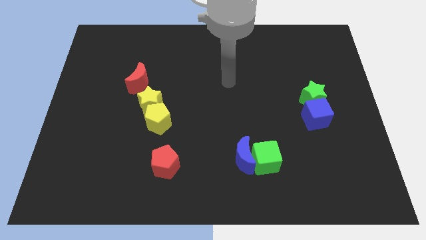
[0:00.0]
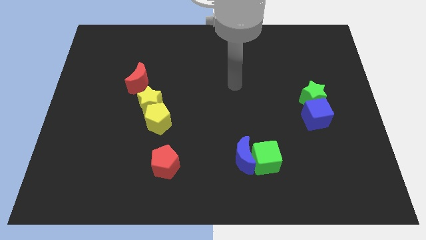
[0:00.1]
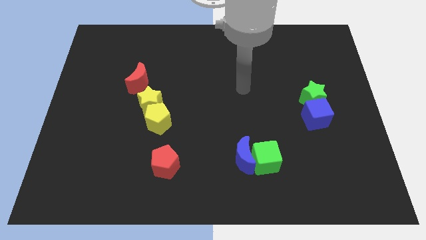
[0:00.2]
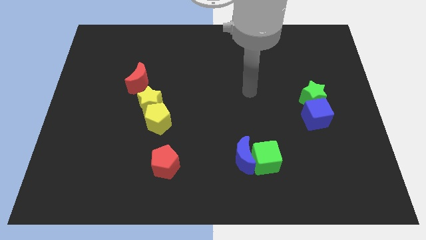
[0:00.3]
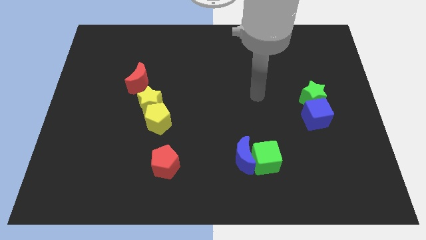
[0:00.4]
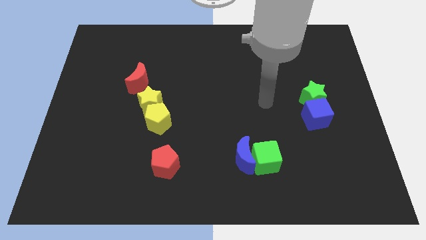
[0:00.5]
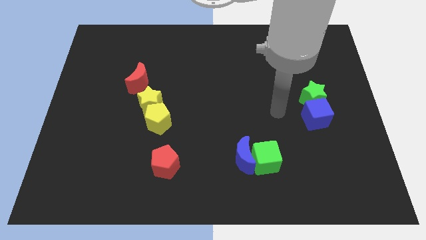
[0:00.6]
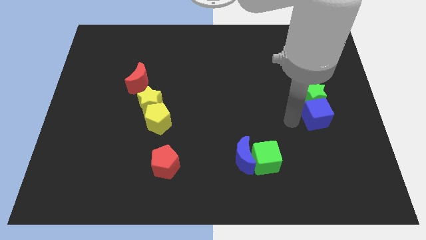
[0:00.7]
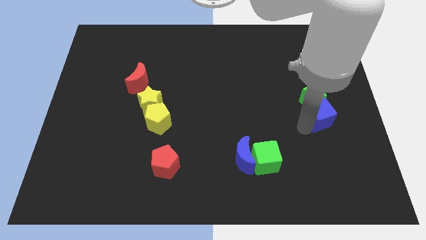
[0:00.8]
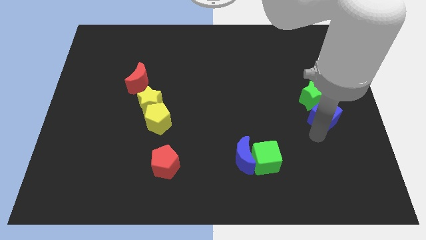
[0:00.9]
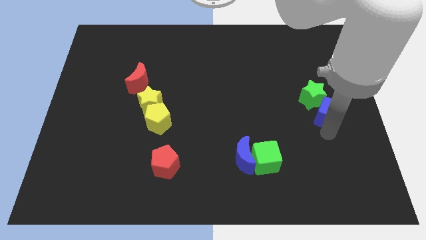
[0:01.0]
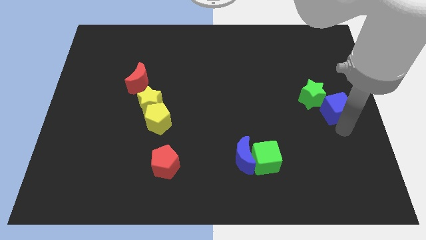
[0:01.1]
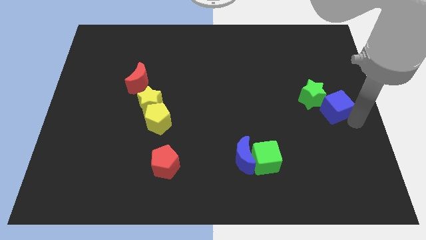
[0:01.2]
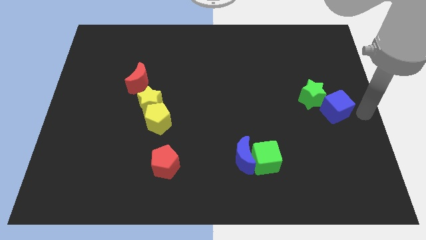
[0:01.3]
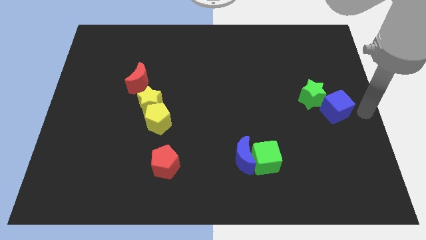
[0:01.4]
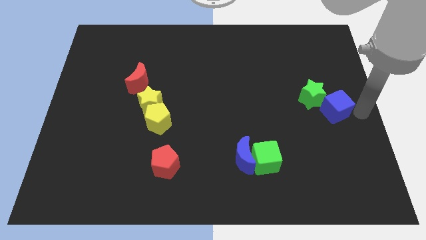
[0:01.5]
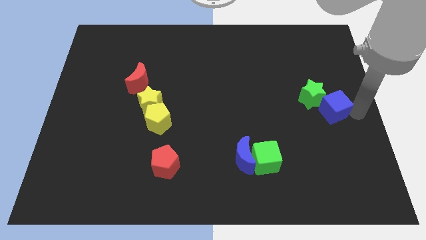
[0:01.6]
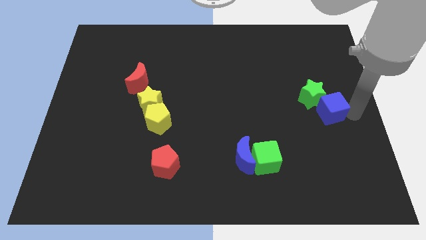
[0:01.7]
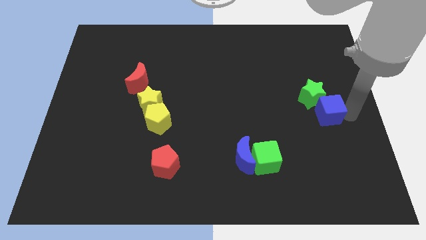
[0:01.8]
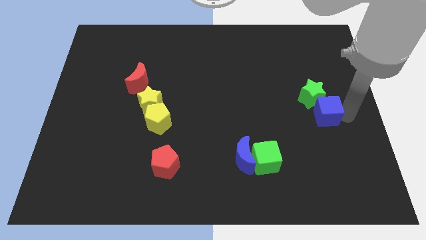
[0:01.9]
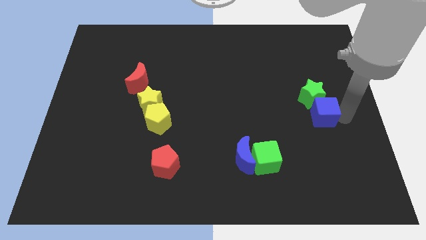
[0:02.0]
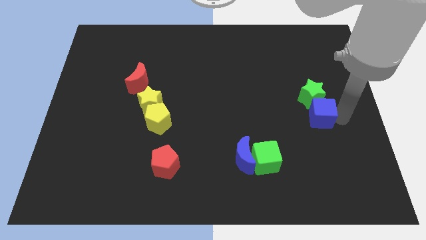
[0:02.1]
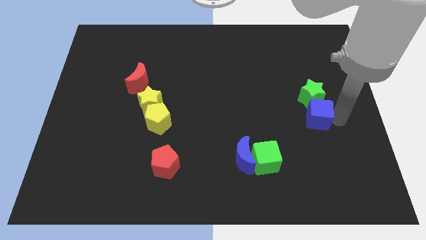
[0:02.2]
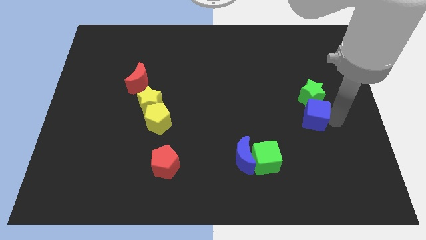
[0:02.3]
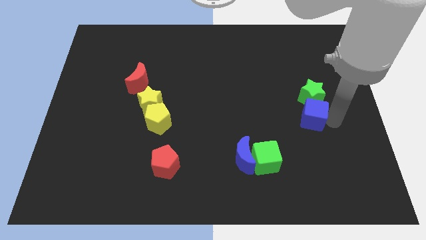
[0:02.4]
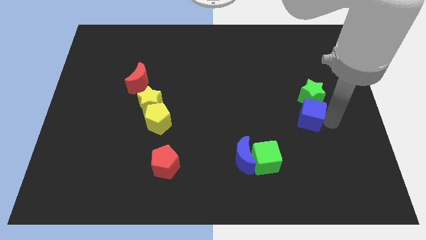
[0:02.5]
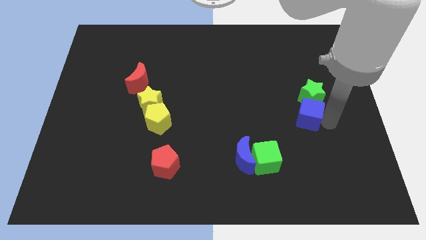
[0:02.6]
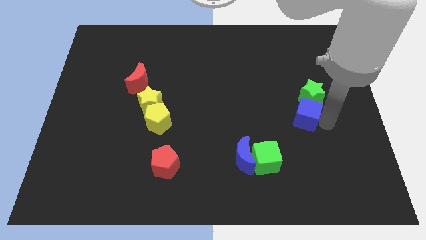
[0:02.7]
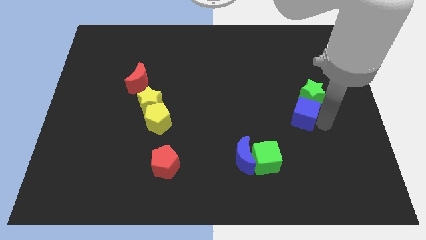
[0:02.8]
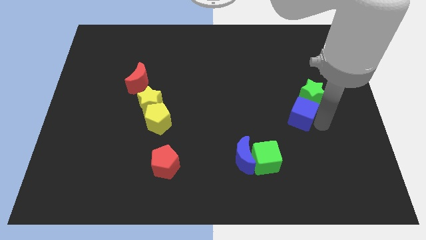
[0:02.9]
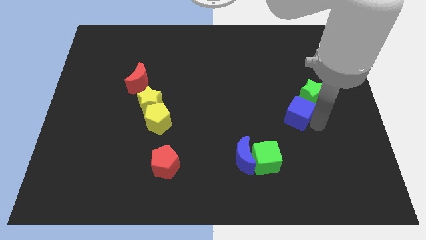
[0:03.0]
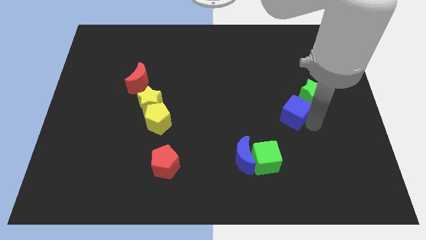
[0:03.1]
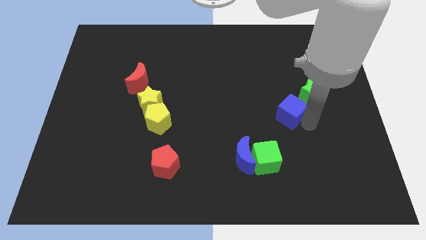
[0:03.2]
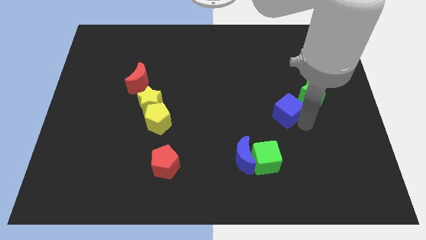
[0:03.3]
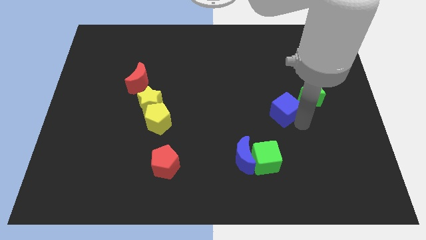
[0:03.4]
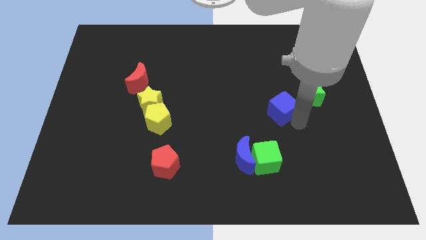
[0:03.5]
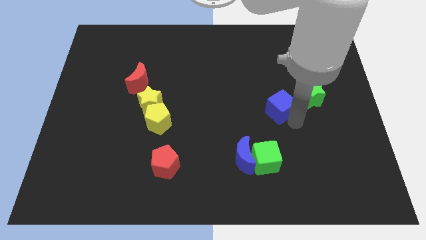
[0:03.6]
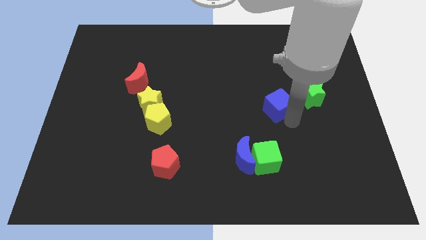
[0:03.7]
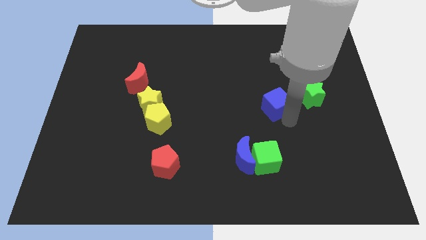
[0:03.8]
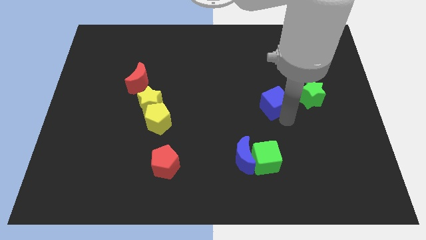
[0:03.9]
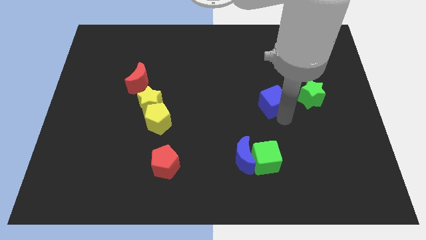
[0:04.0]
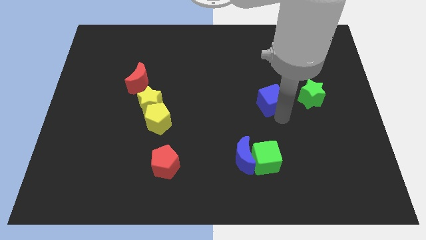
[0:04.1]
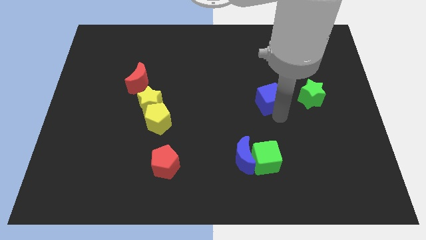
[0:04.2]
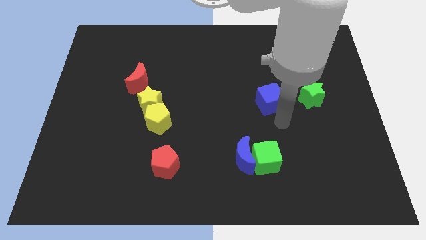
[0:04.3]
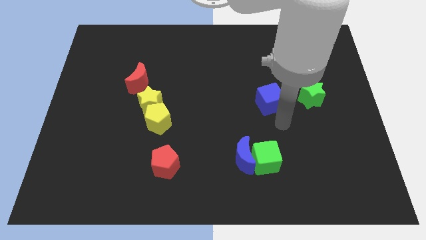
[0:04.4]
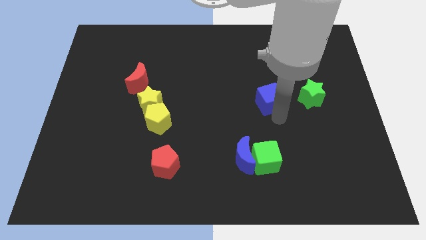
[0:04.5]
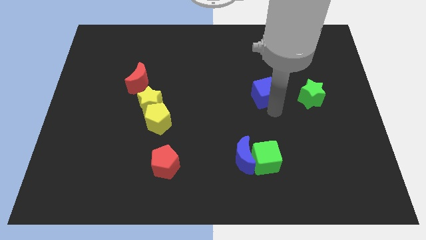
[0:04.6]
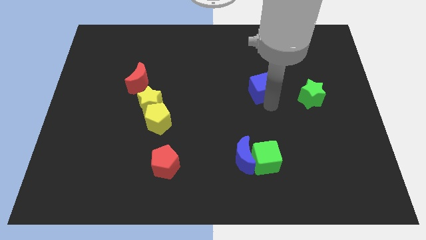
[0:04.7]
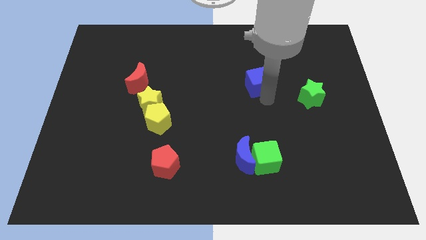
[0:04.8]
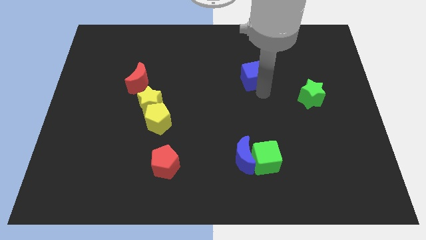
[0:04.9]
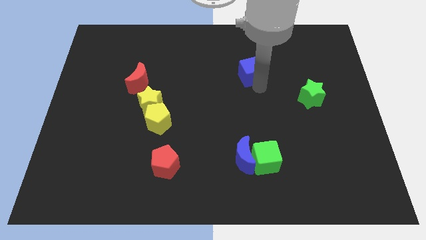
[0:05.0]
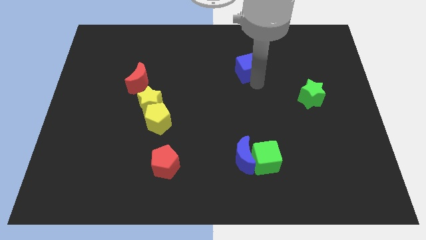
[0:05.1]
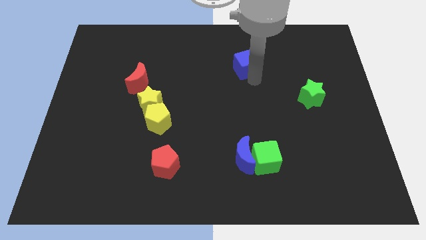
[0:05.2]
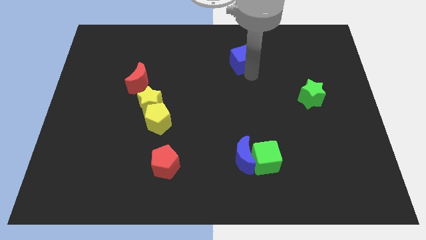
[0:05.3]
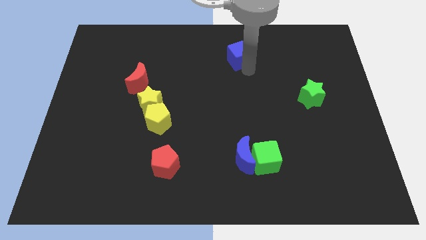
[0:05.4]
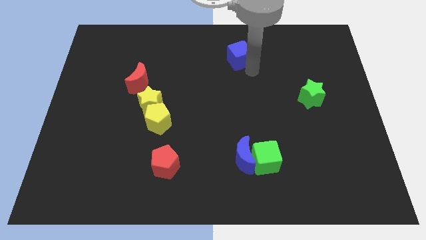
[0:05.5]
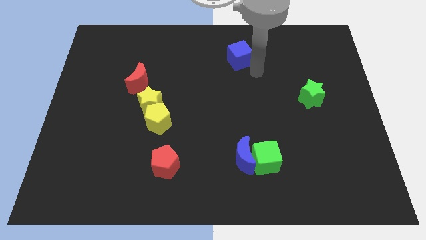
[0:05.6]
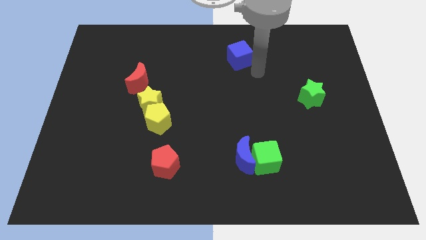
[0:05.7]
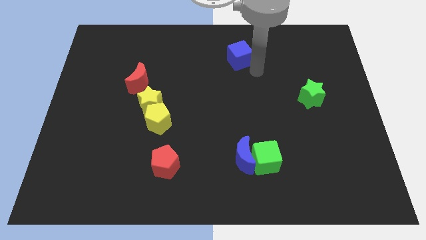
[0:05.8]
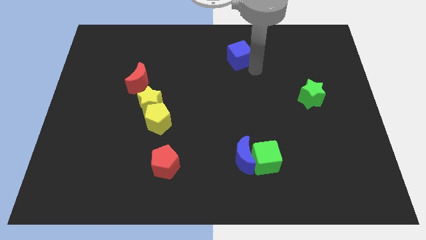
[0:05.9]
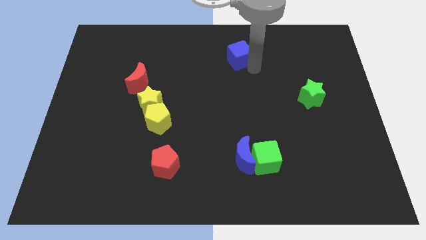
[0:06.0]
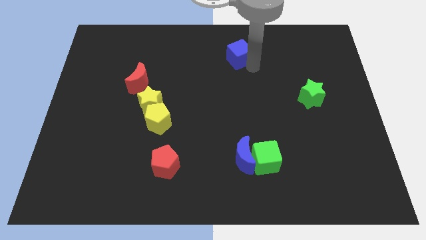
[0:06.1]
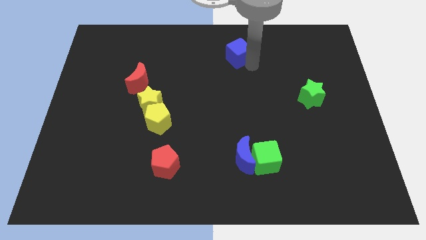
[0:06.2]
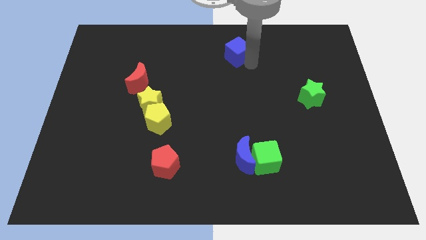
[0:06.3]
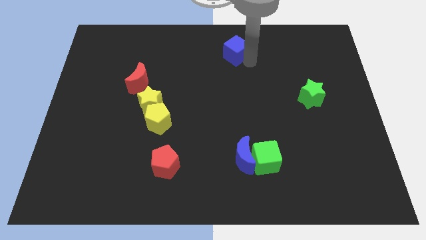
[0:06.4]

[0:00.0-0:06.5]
slide the blue cube to the top side
